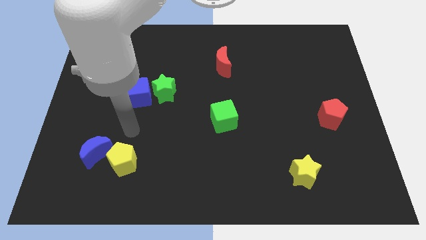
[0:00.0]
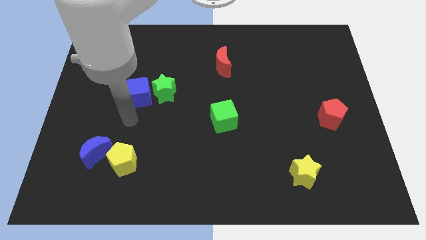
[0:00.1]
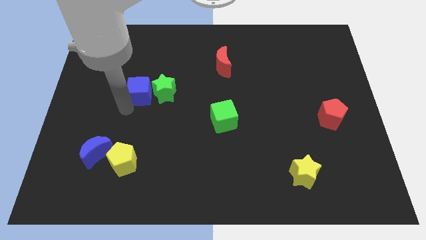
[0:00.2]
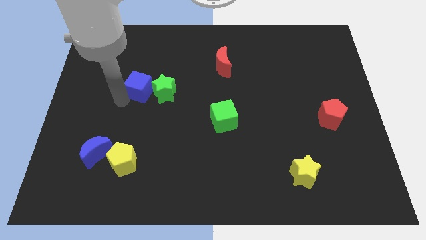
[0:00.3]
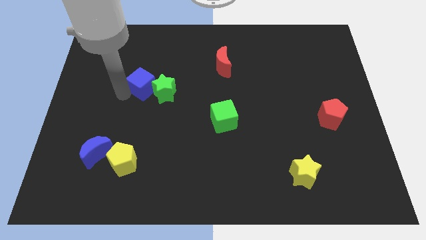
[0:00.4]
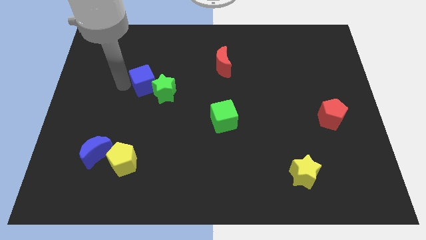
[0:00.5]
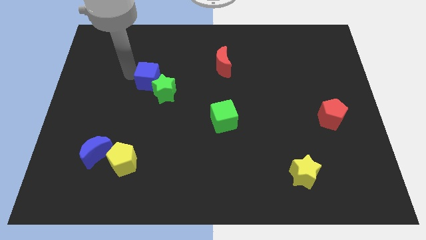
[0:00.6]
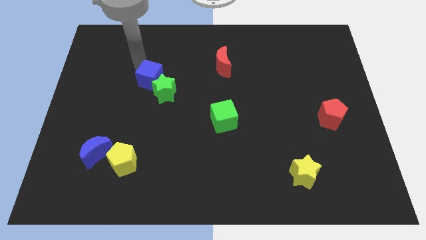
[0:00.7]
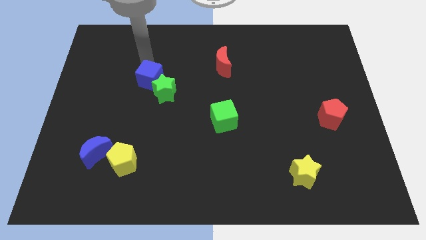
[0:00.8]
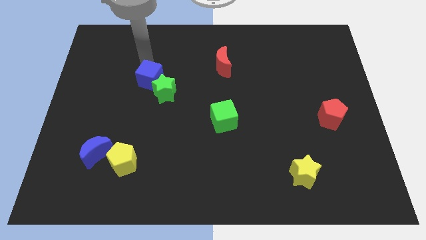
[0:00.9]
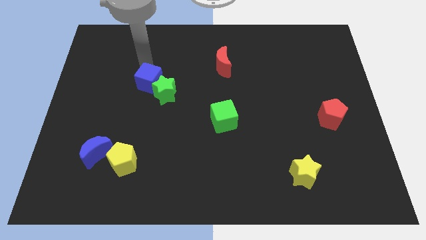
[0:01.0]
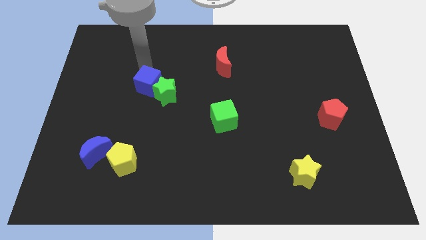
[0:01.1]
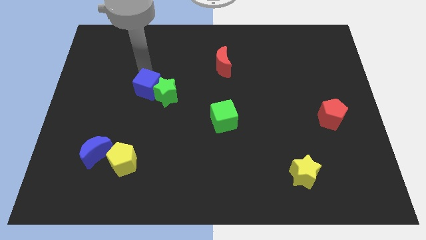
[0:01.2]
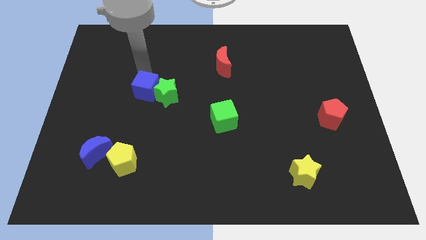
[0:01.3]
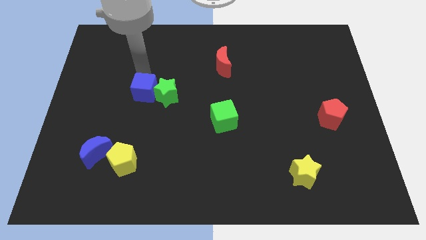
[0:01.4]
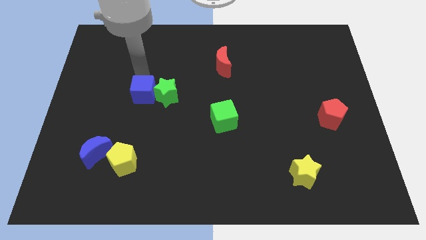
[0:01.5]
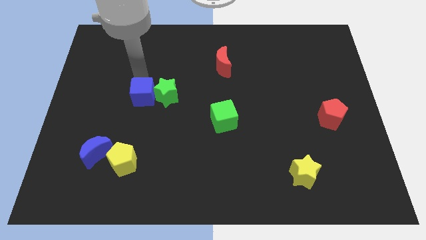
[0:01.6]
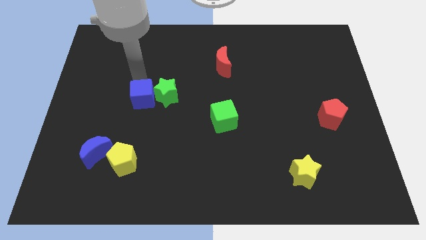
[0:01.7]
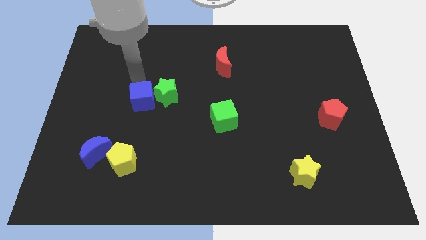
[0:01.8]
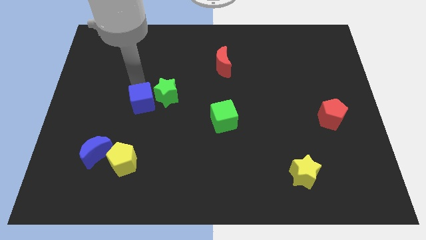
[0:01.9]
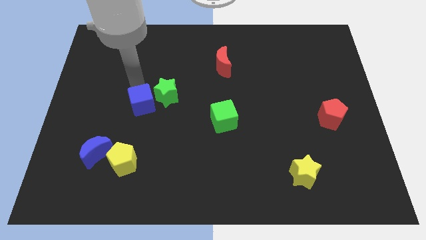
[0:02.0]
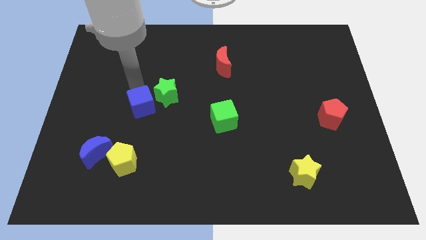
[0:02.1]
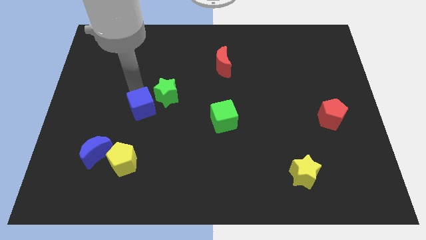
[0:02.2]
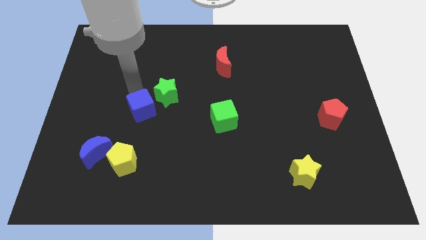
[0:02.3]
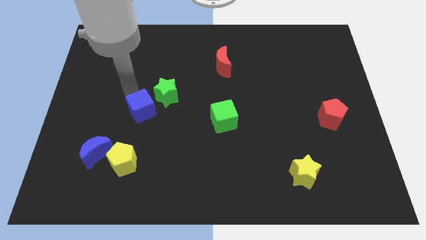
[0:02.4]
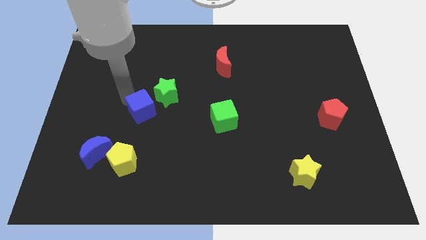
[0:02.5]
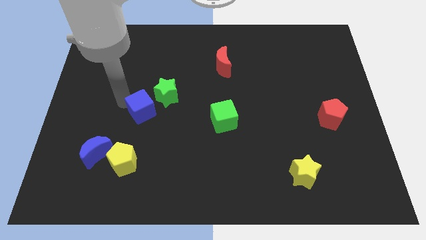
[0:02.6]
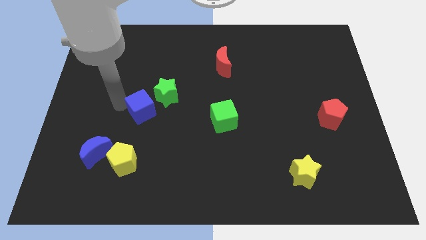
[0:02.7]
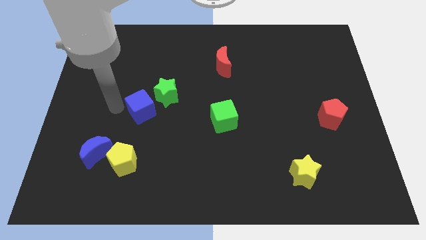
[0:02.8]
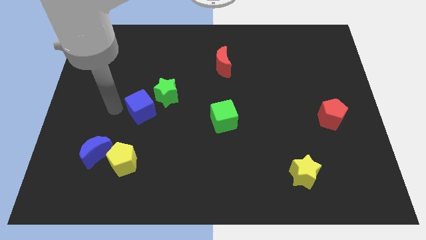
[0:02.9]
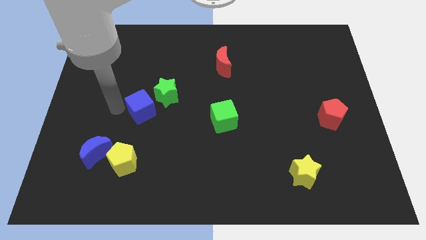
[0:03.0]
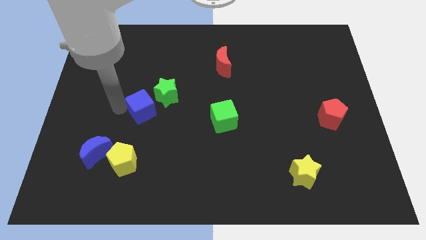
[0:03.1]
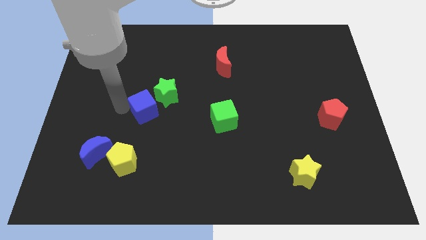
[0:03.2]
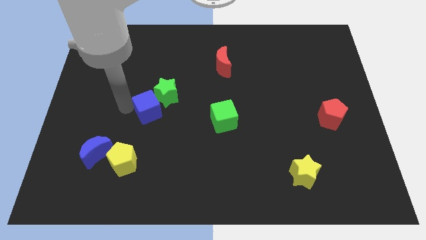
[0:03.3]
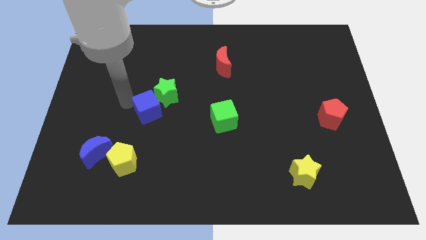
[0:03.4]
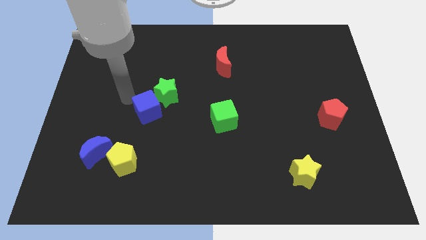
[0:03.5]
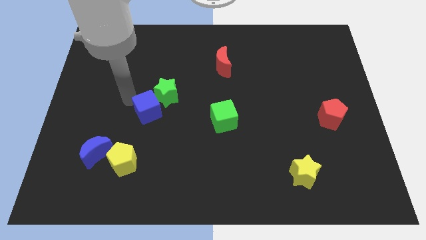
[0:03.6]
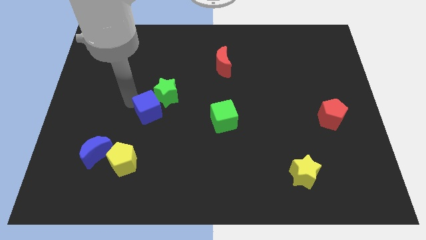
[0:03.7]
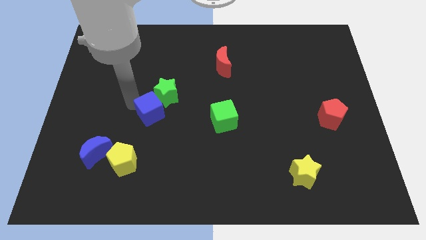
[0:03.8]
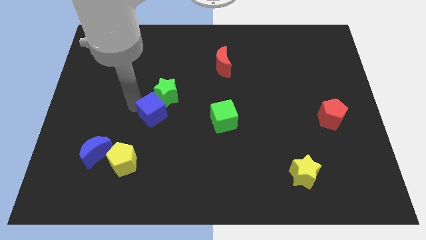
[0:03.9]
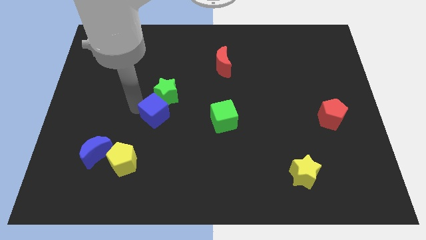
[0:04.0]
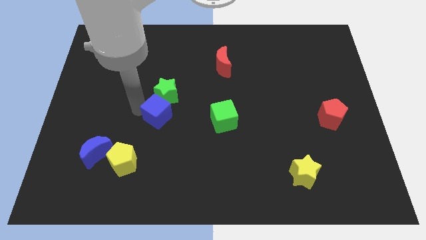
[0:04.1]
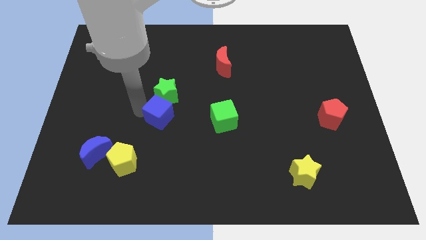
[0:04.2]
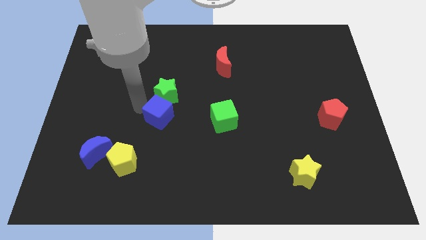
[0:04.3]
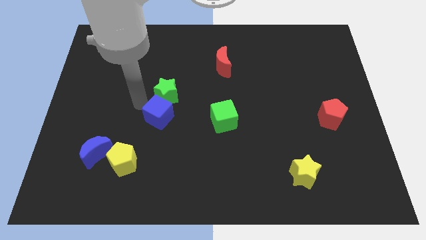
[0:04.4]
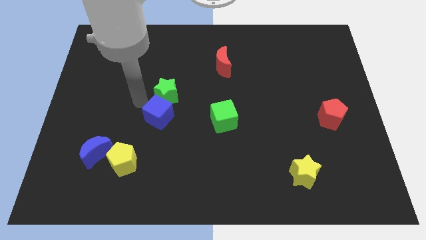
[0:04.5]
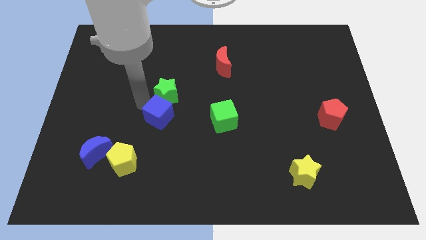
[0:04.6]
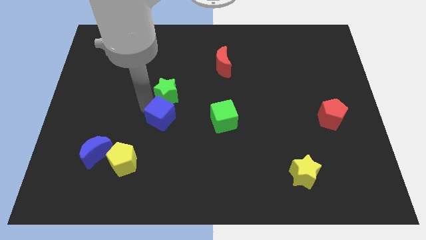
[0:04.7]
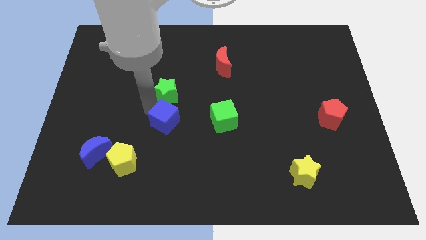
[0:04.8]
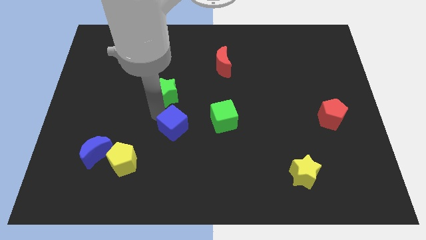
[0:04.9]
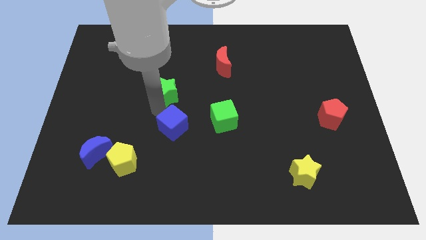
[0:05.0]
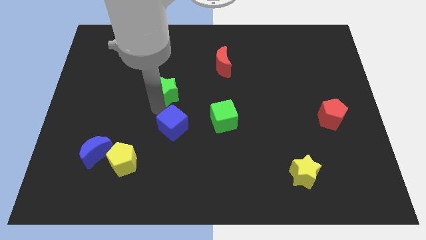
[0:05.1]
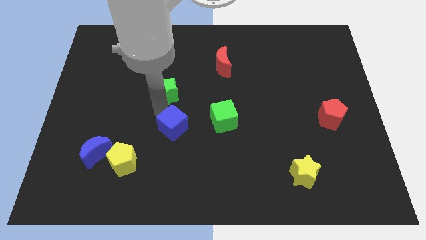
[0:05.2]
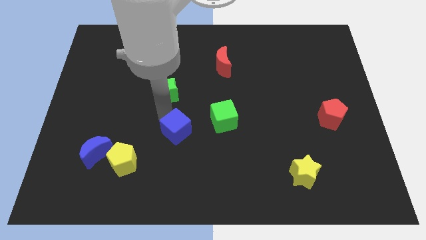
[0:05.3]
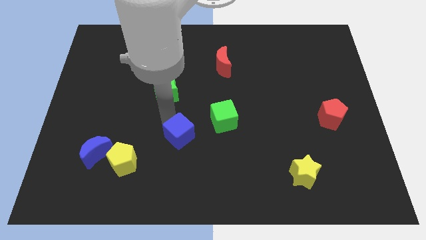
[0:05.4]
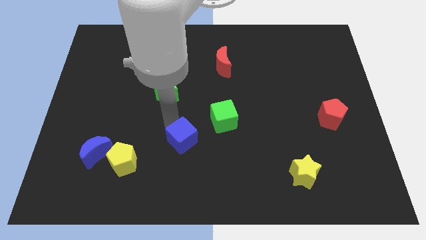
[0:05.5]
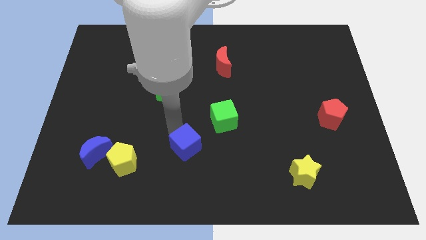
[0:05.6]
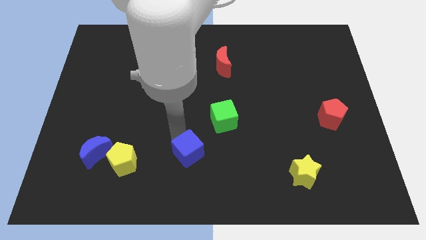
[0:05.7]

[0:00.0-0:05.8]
push the blue cube down and to the right diagonally

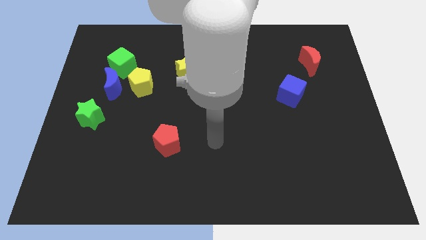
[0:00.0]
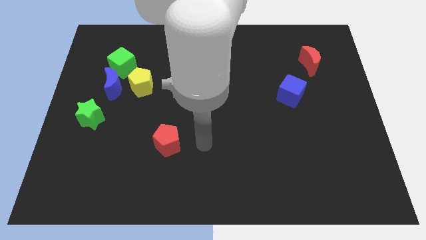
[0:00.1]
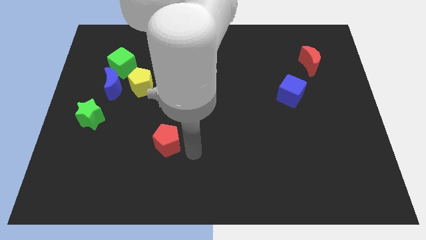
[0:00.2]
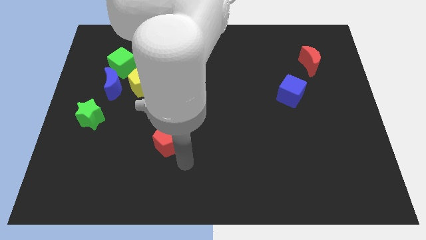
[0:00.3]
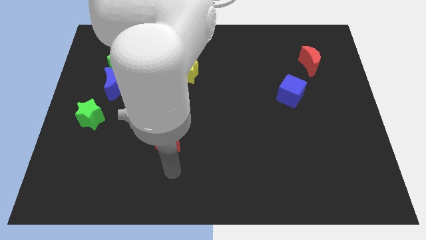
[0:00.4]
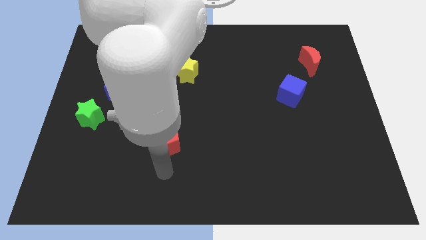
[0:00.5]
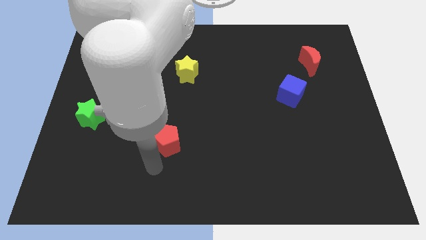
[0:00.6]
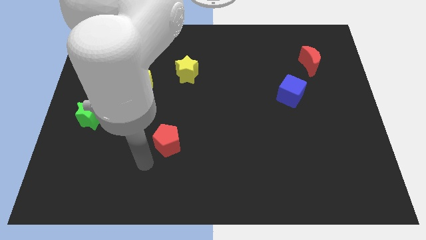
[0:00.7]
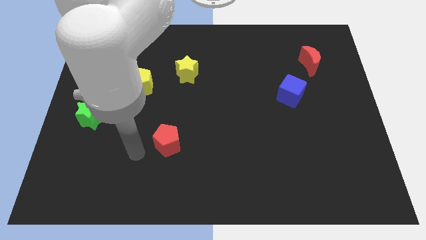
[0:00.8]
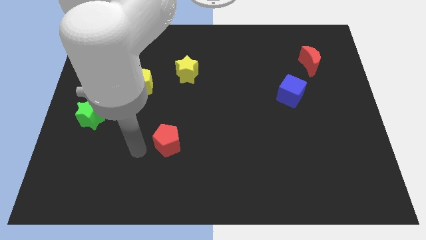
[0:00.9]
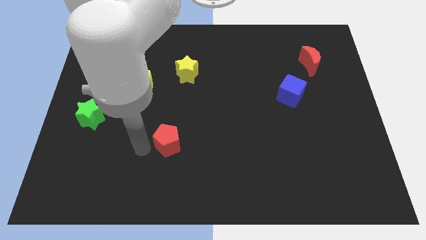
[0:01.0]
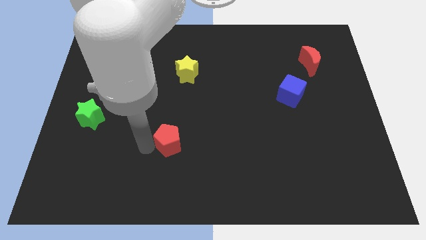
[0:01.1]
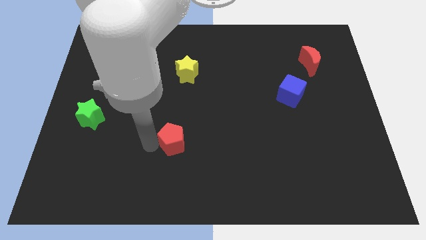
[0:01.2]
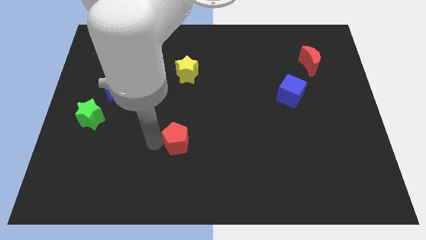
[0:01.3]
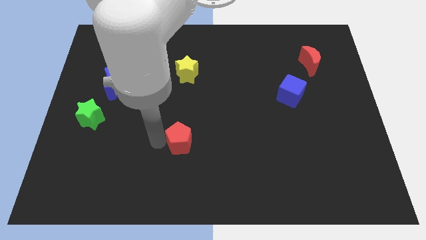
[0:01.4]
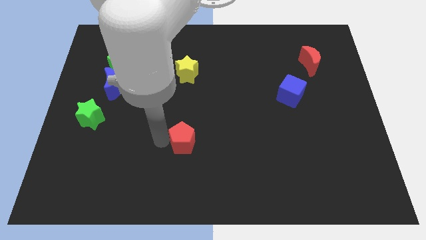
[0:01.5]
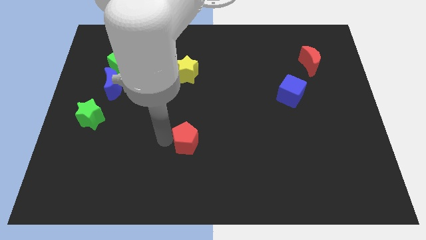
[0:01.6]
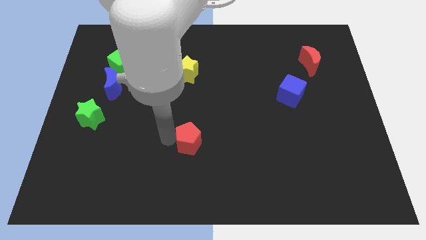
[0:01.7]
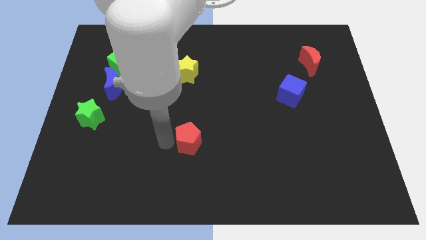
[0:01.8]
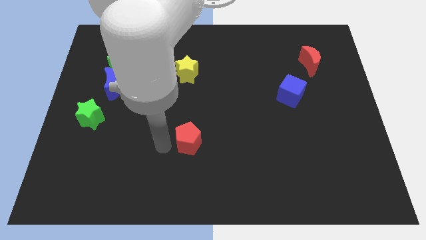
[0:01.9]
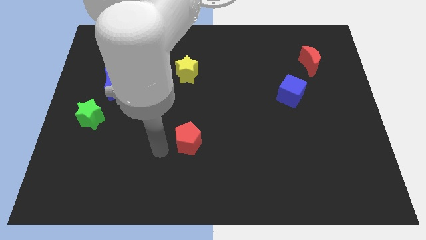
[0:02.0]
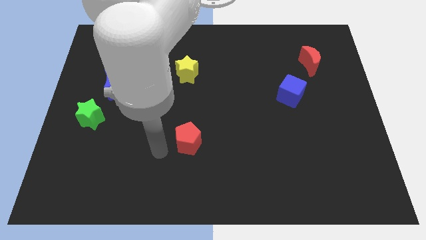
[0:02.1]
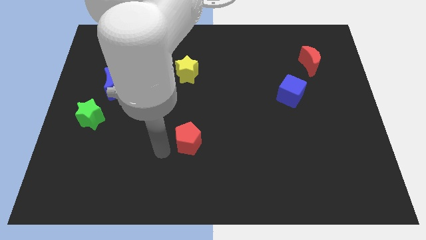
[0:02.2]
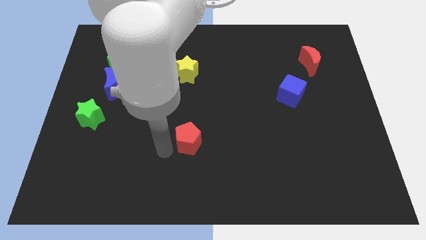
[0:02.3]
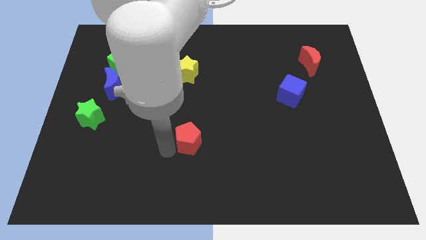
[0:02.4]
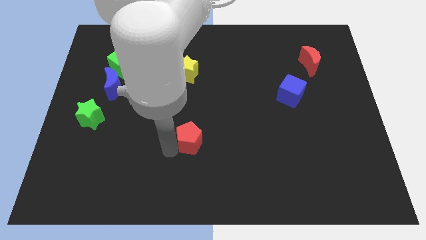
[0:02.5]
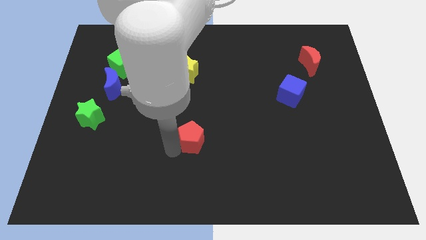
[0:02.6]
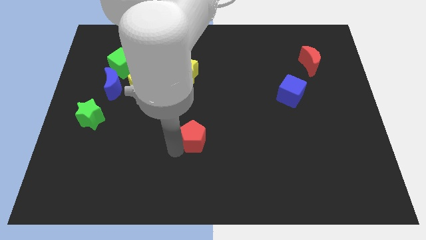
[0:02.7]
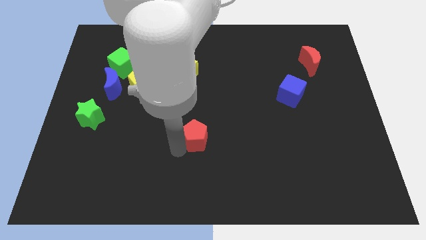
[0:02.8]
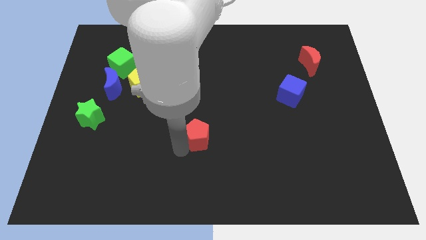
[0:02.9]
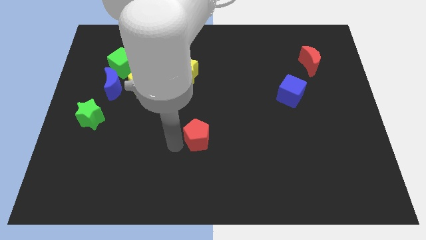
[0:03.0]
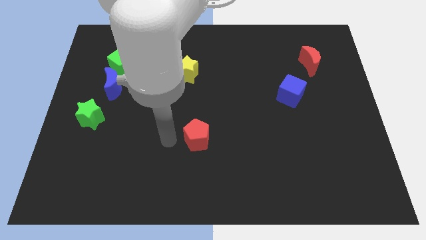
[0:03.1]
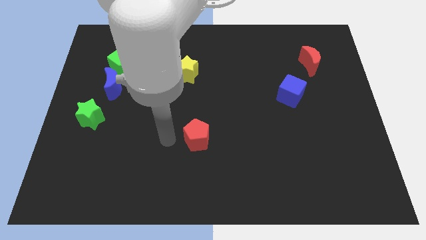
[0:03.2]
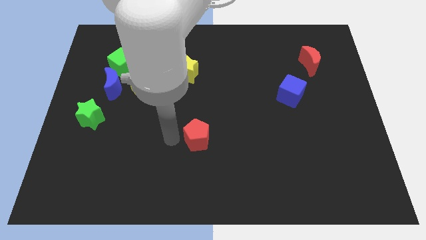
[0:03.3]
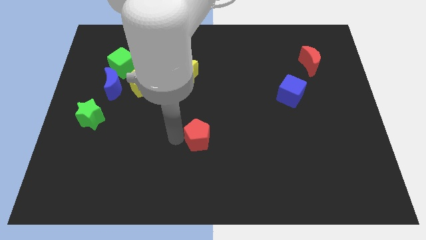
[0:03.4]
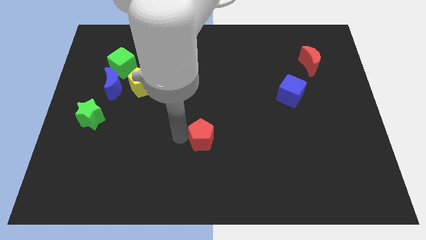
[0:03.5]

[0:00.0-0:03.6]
move the red pentagon right slightly
